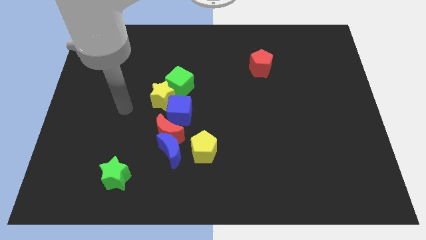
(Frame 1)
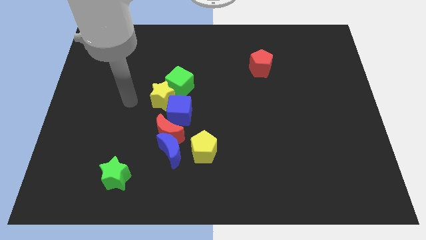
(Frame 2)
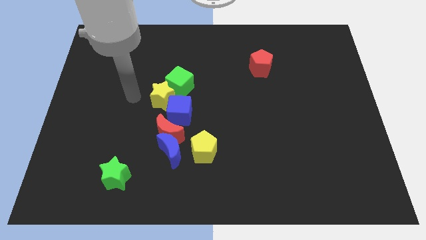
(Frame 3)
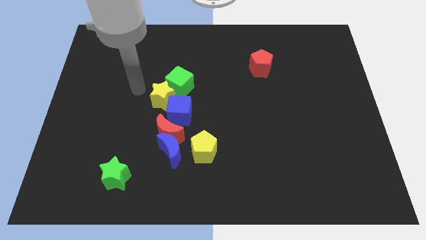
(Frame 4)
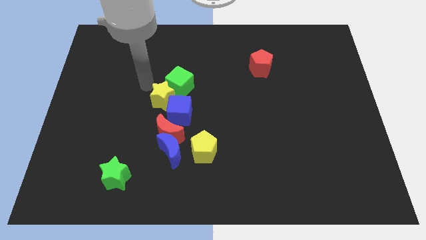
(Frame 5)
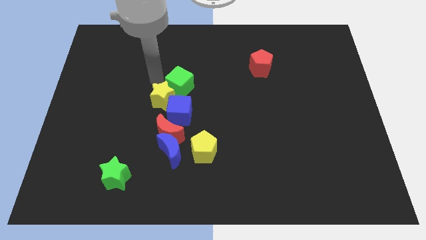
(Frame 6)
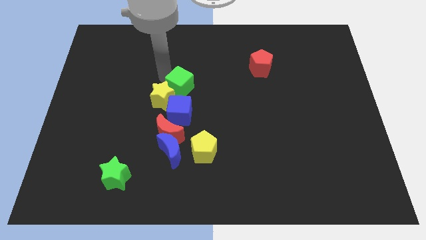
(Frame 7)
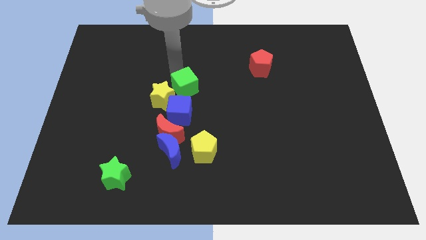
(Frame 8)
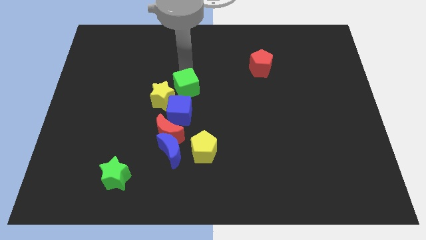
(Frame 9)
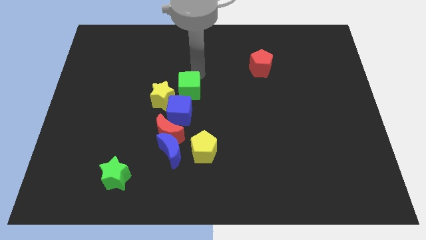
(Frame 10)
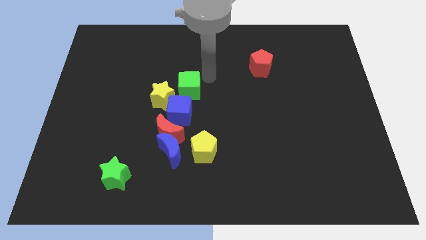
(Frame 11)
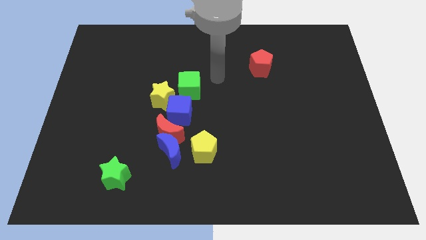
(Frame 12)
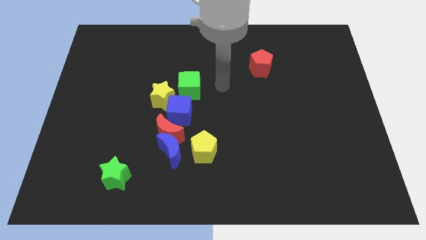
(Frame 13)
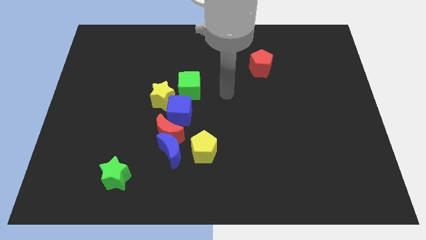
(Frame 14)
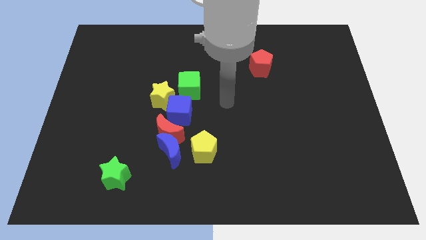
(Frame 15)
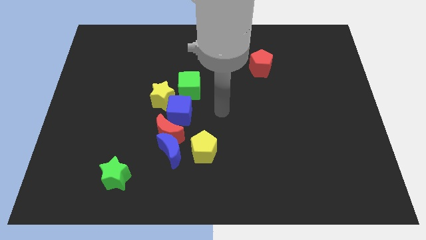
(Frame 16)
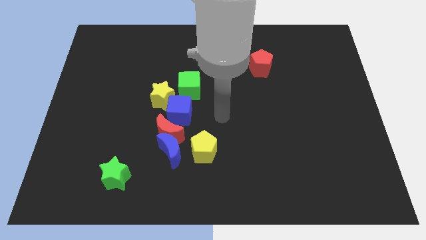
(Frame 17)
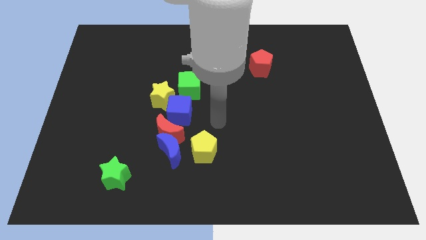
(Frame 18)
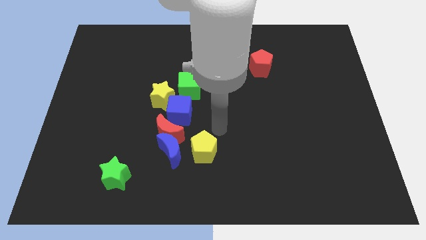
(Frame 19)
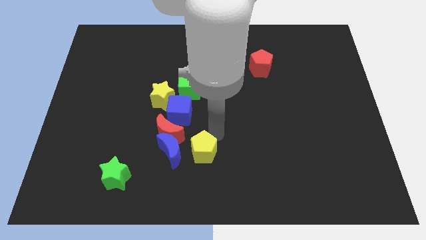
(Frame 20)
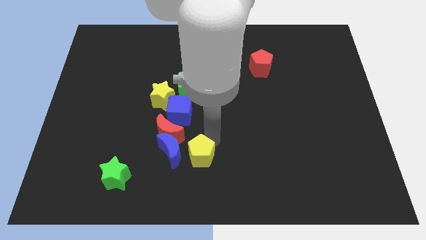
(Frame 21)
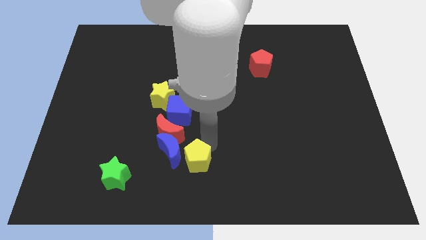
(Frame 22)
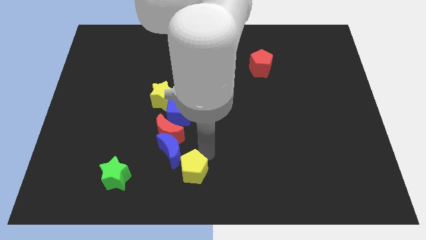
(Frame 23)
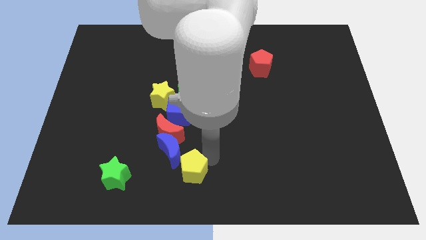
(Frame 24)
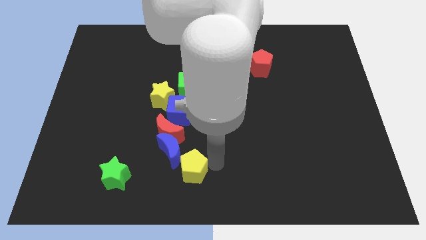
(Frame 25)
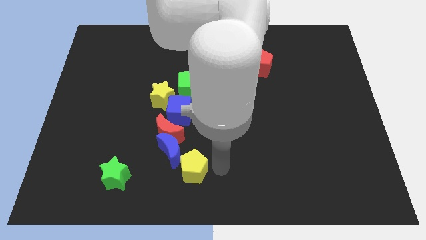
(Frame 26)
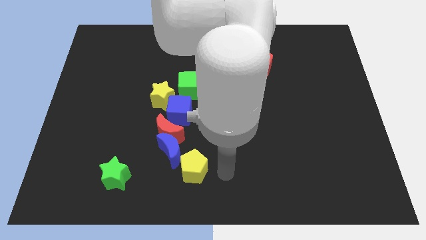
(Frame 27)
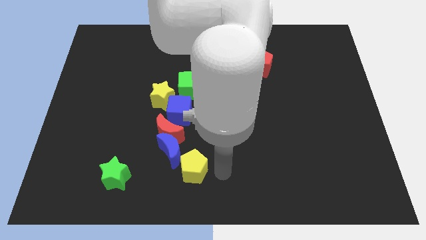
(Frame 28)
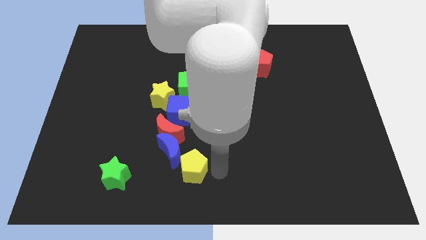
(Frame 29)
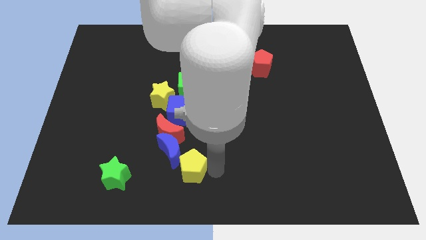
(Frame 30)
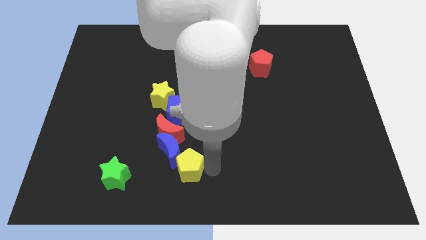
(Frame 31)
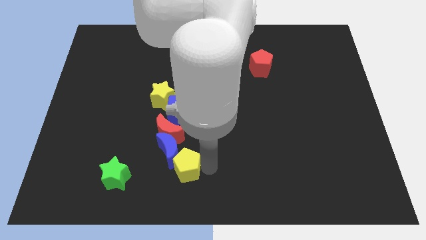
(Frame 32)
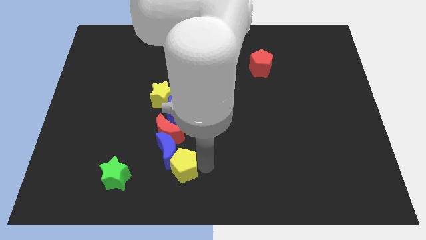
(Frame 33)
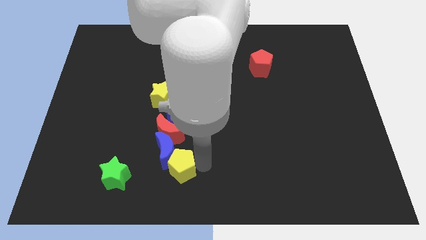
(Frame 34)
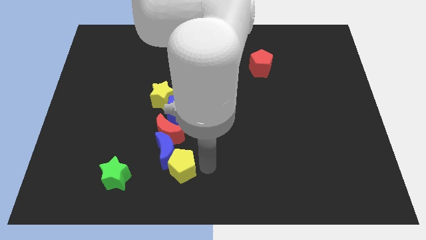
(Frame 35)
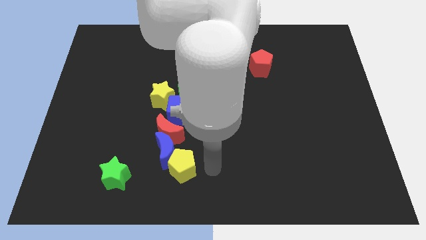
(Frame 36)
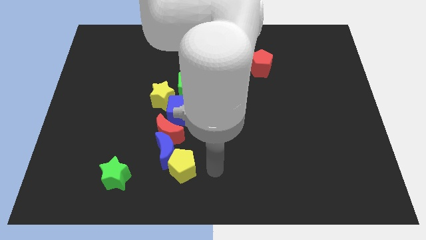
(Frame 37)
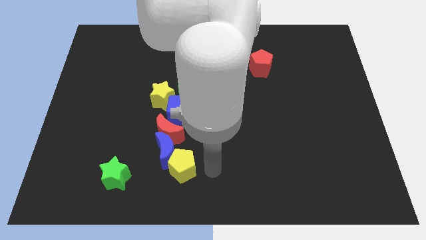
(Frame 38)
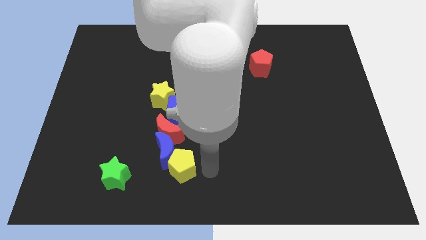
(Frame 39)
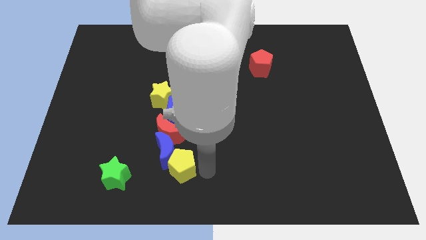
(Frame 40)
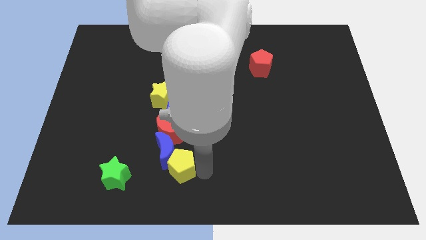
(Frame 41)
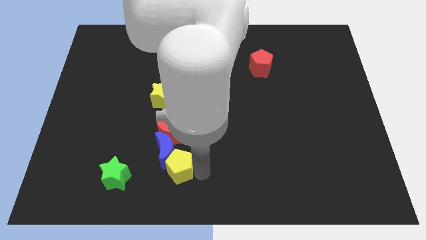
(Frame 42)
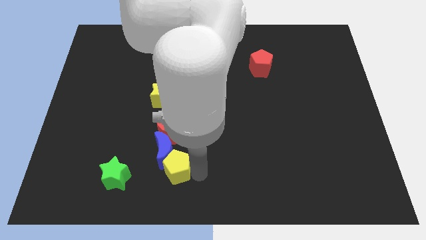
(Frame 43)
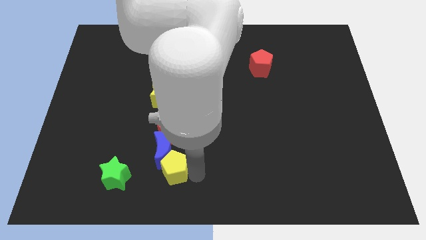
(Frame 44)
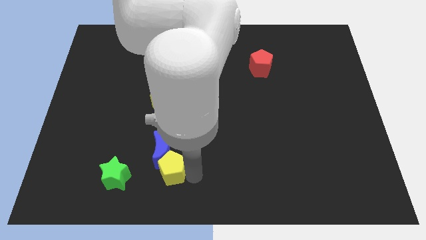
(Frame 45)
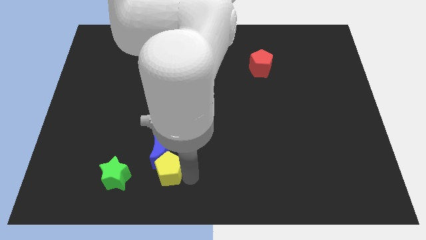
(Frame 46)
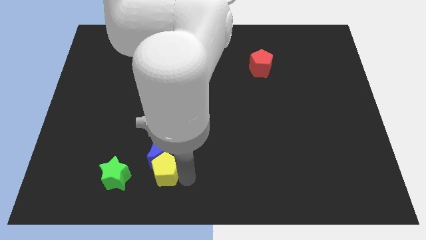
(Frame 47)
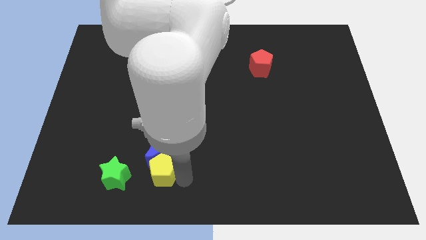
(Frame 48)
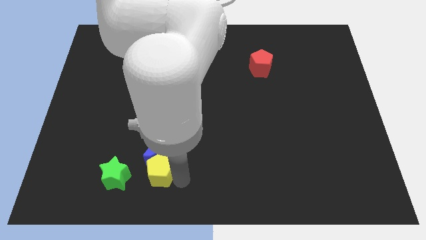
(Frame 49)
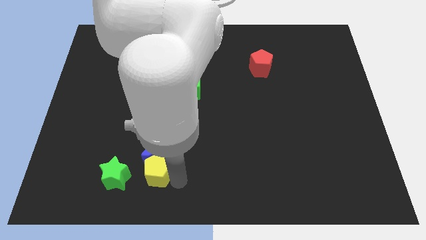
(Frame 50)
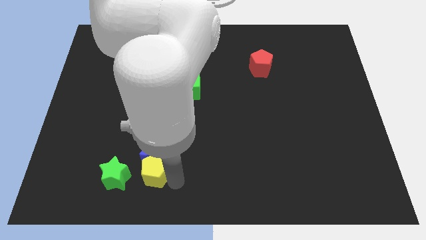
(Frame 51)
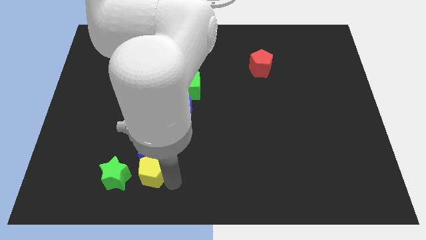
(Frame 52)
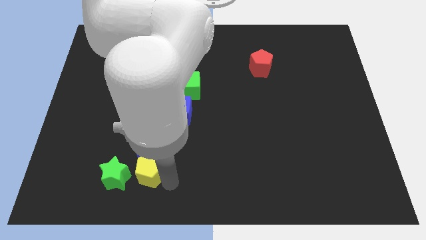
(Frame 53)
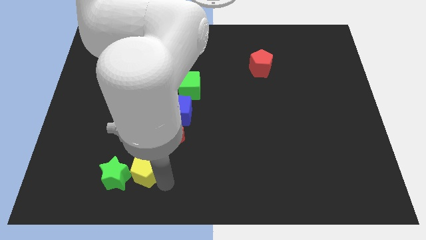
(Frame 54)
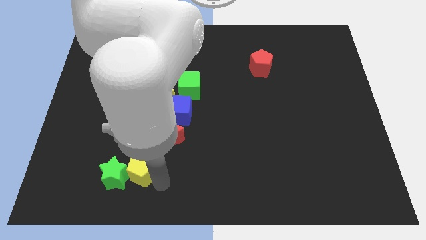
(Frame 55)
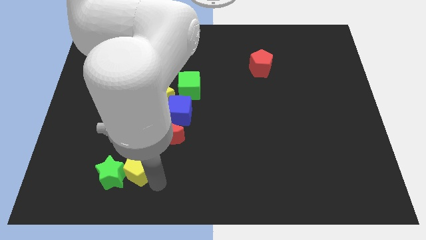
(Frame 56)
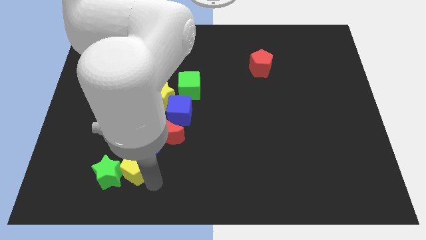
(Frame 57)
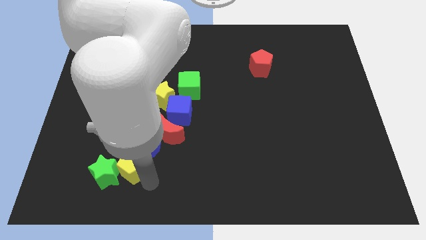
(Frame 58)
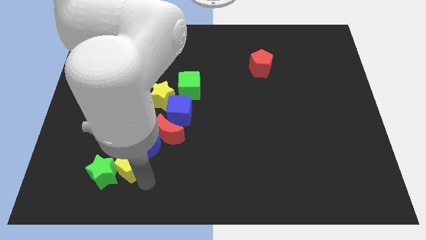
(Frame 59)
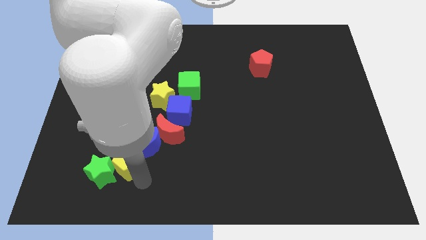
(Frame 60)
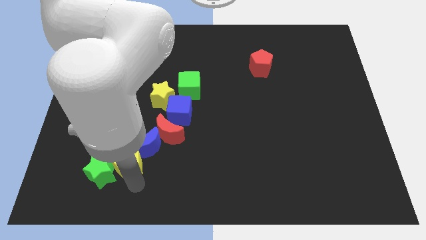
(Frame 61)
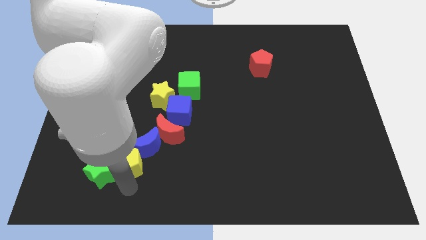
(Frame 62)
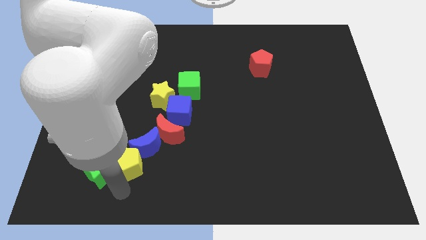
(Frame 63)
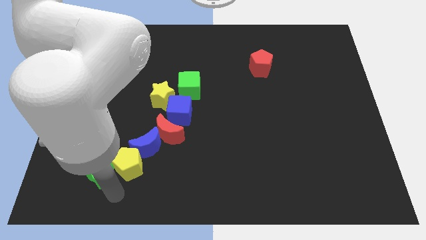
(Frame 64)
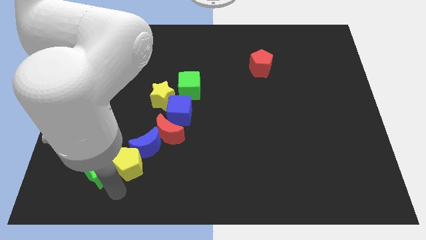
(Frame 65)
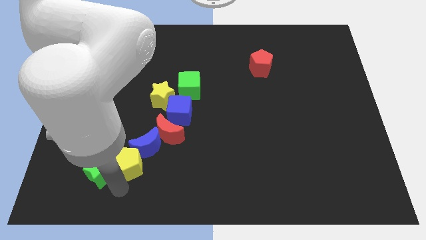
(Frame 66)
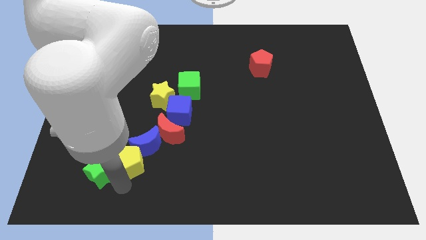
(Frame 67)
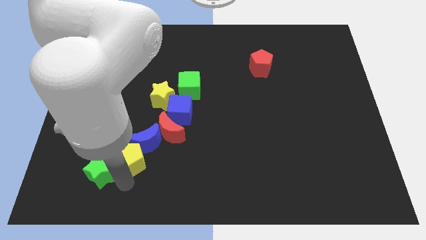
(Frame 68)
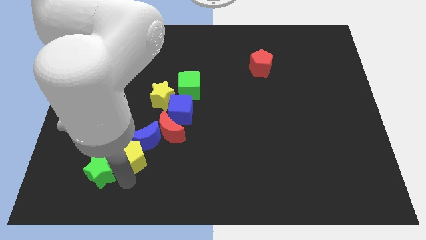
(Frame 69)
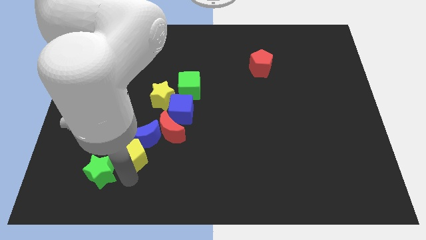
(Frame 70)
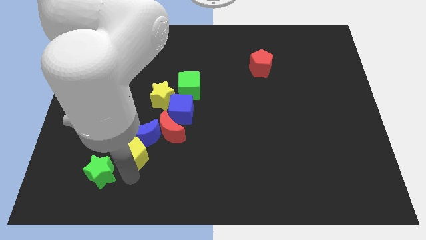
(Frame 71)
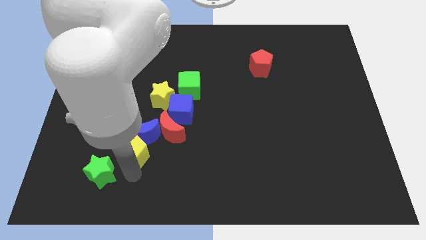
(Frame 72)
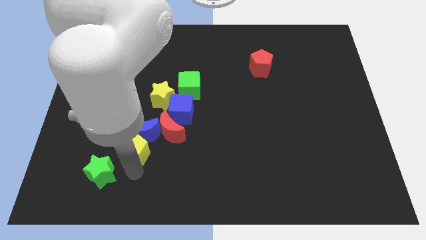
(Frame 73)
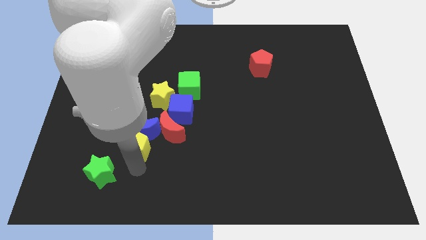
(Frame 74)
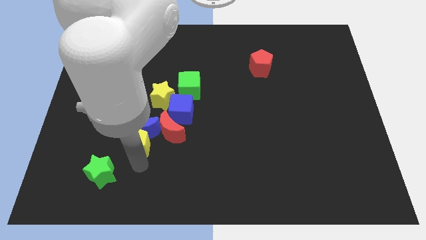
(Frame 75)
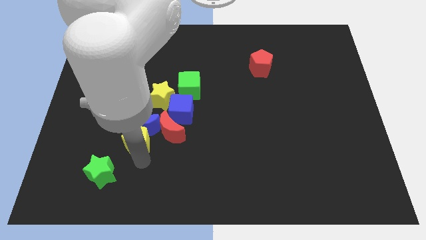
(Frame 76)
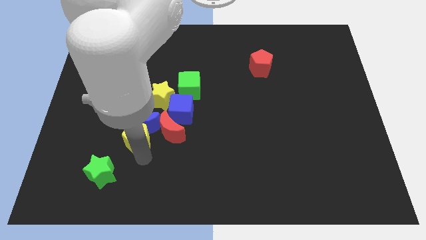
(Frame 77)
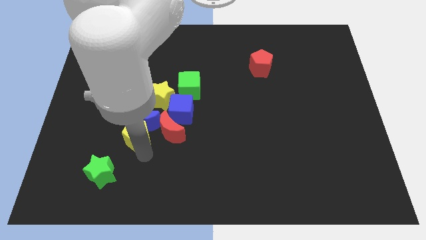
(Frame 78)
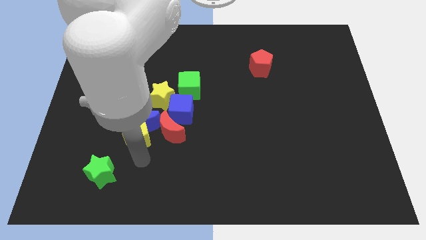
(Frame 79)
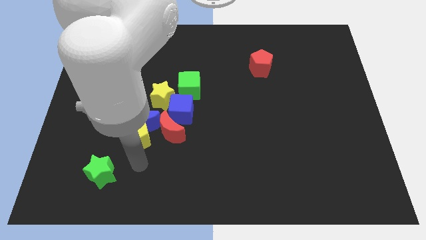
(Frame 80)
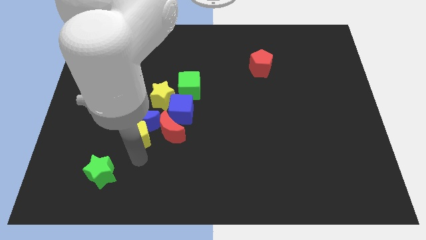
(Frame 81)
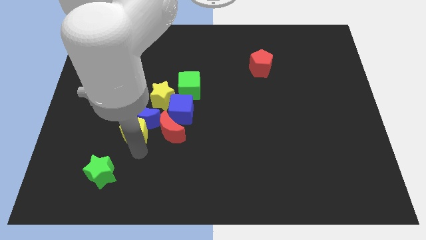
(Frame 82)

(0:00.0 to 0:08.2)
slide the yellow pentagon to the bottom left side of the yellow star
